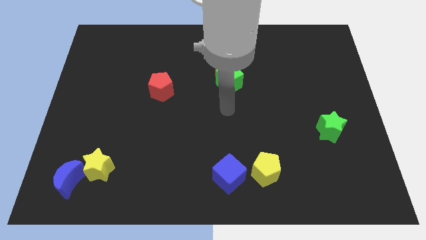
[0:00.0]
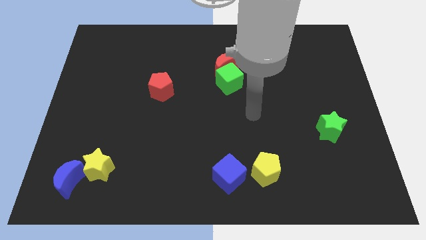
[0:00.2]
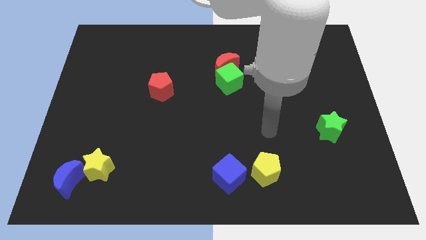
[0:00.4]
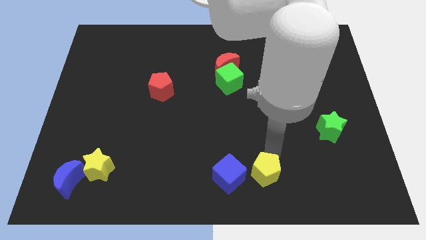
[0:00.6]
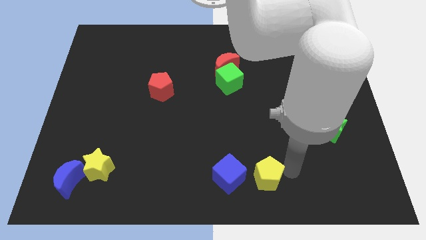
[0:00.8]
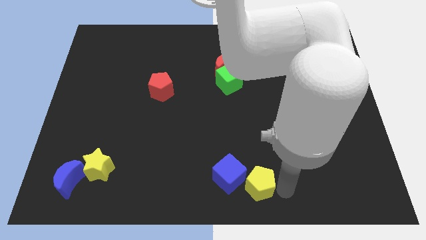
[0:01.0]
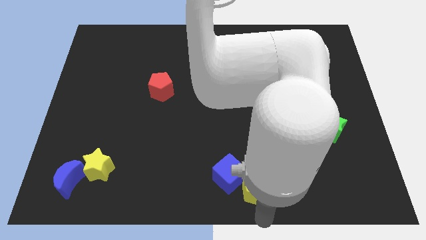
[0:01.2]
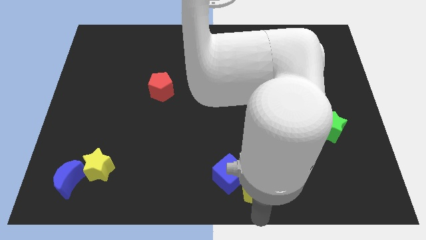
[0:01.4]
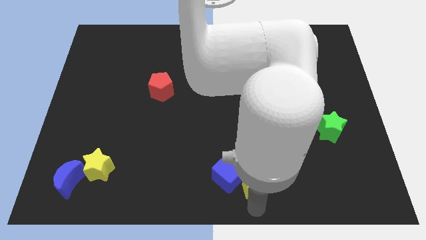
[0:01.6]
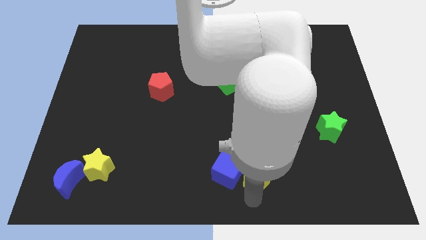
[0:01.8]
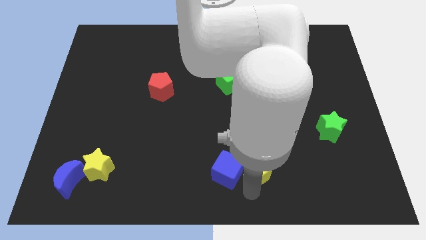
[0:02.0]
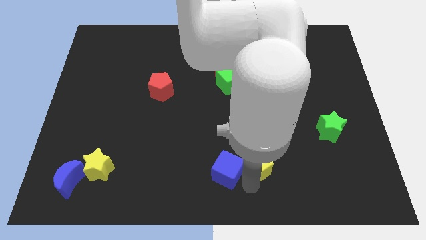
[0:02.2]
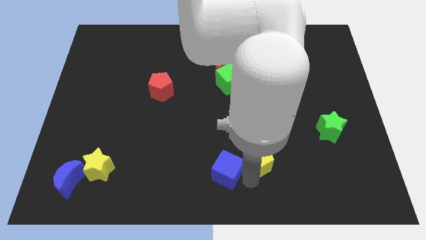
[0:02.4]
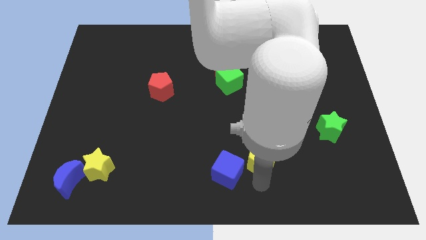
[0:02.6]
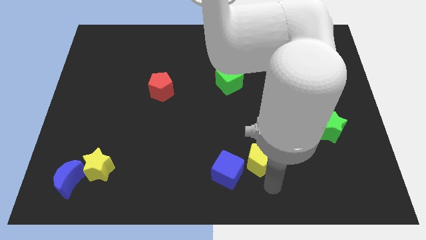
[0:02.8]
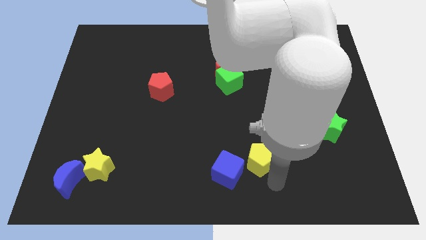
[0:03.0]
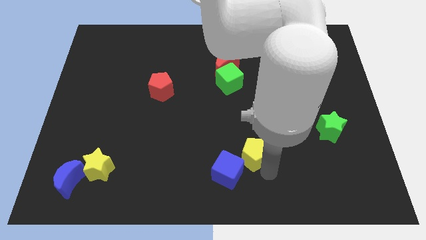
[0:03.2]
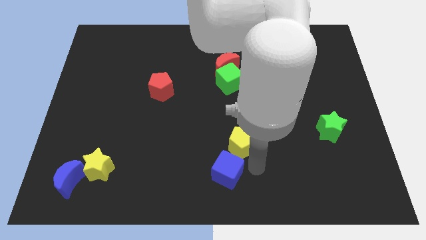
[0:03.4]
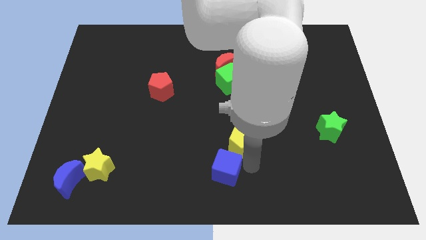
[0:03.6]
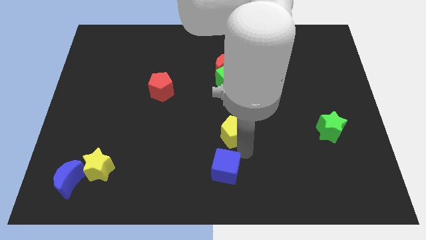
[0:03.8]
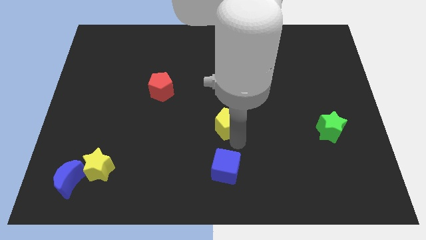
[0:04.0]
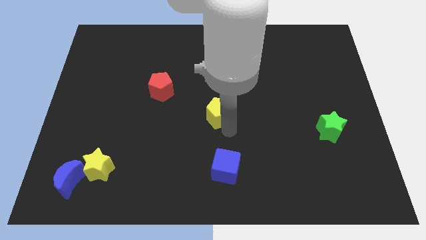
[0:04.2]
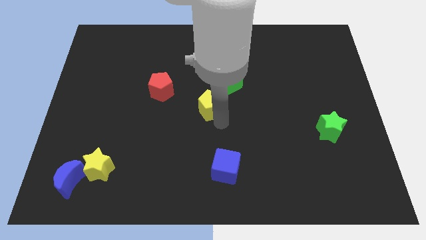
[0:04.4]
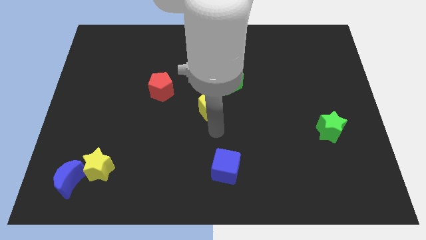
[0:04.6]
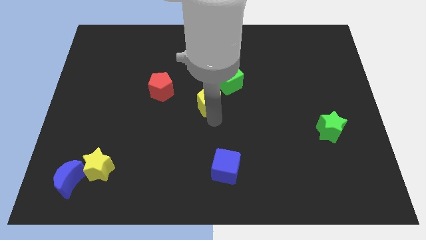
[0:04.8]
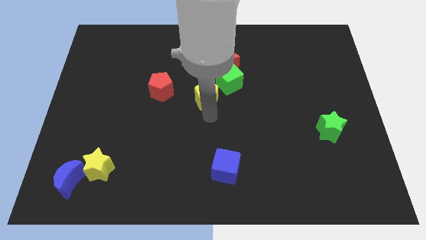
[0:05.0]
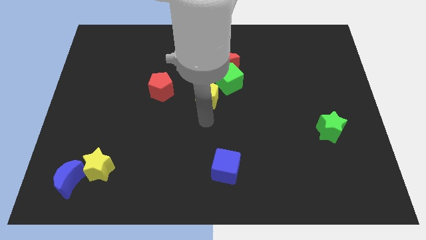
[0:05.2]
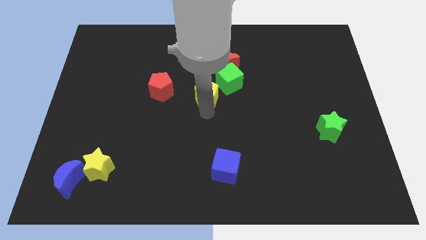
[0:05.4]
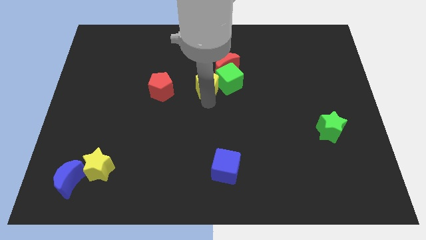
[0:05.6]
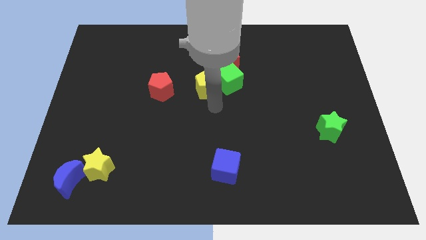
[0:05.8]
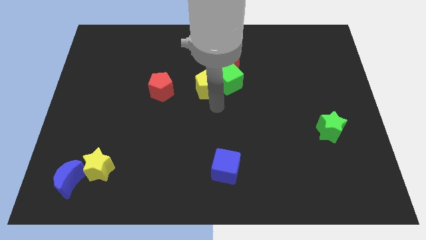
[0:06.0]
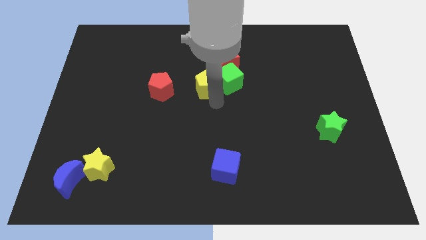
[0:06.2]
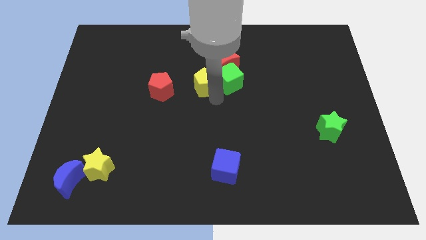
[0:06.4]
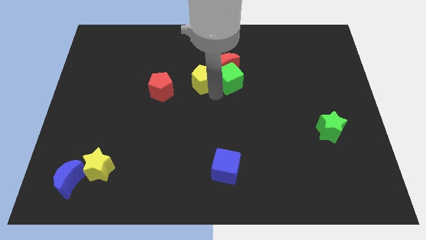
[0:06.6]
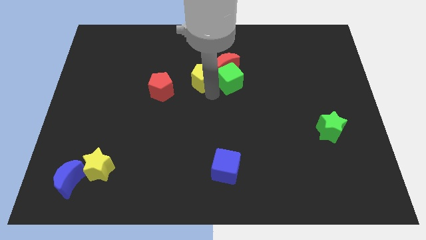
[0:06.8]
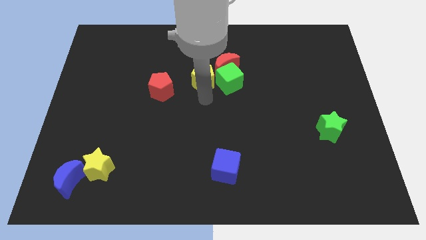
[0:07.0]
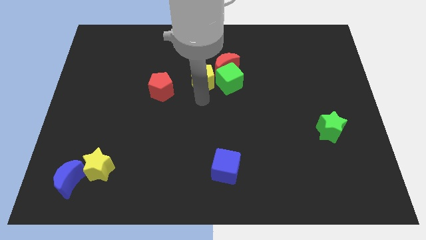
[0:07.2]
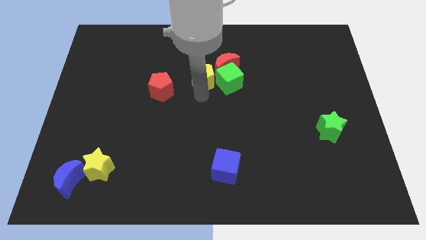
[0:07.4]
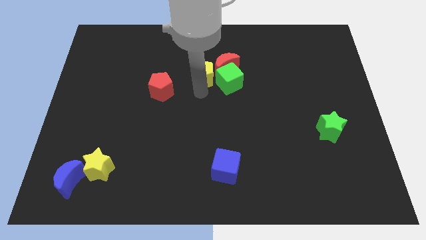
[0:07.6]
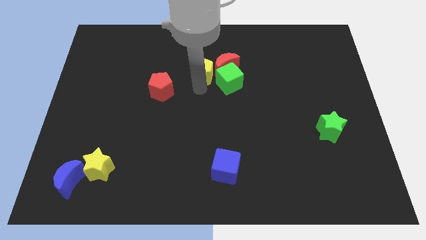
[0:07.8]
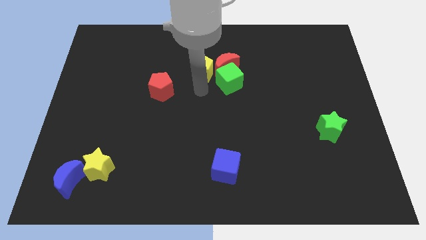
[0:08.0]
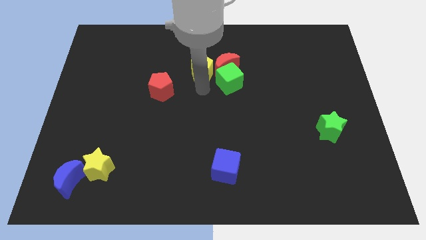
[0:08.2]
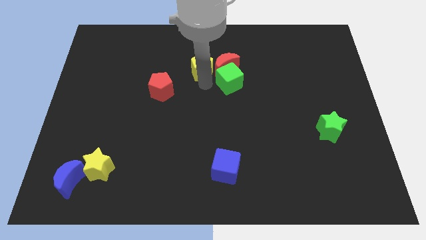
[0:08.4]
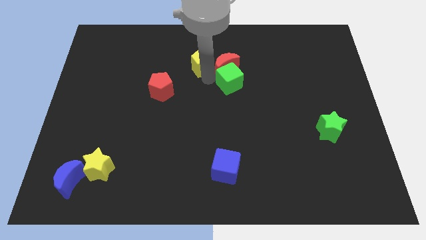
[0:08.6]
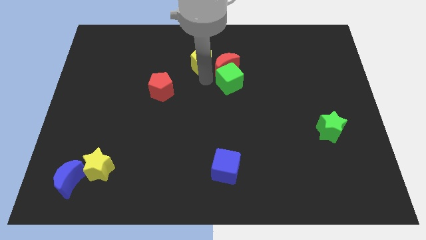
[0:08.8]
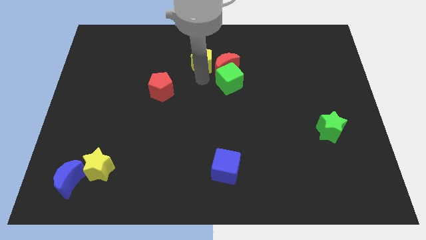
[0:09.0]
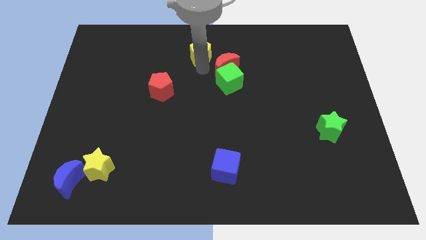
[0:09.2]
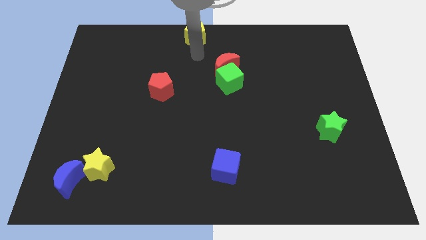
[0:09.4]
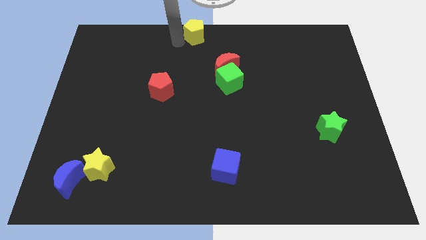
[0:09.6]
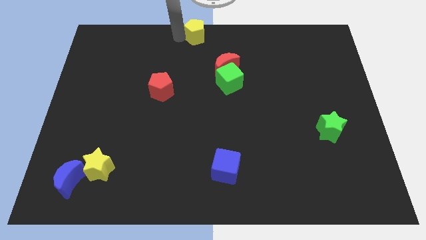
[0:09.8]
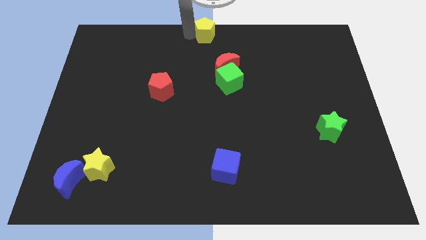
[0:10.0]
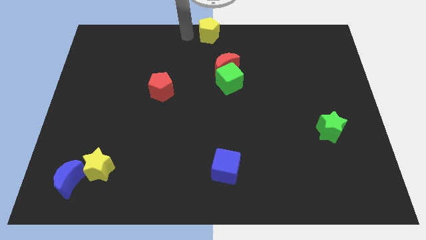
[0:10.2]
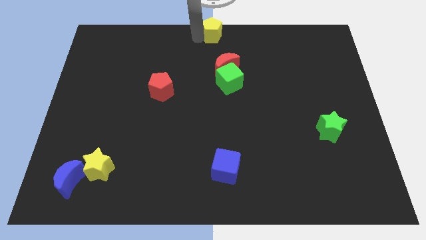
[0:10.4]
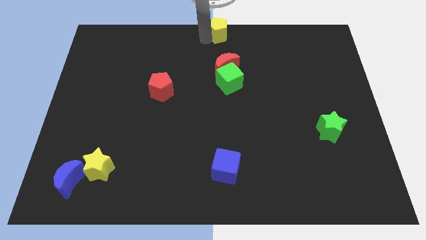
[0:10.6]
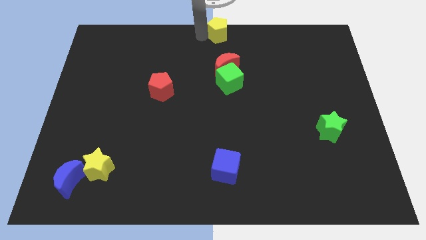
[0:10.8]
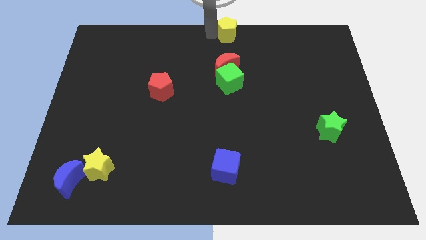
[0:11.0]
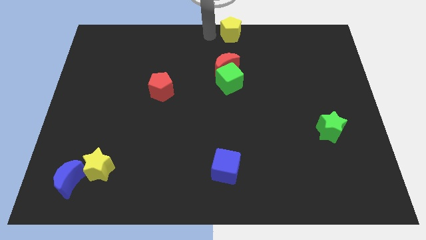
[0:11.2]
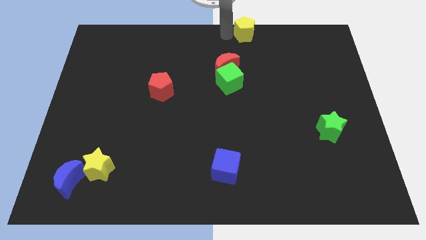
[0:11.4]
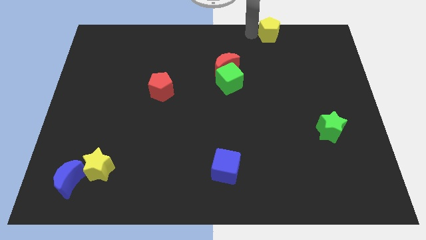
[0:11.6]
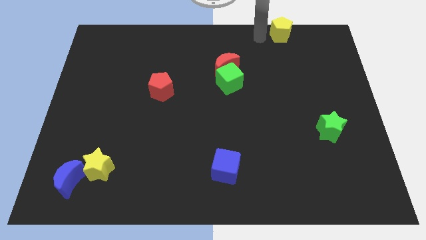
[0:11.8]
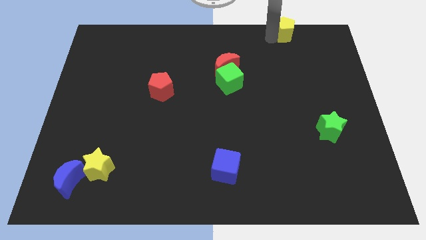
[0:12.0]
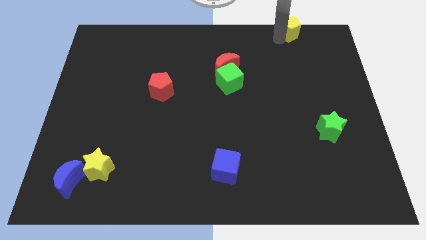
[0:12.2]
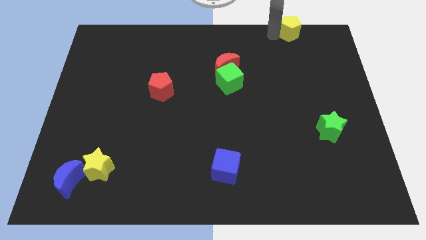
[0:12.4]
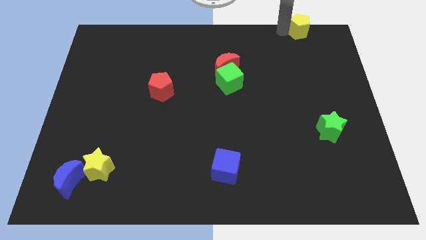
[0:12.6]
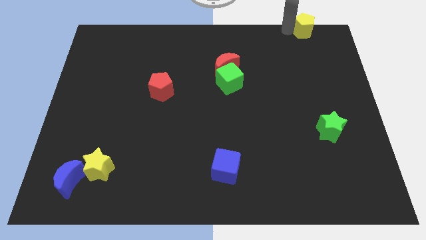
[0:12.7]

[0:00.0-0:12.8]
put the yellow pentagon to the upper right corner

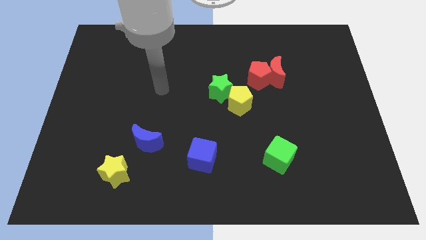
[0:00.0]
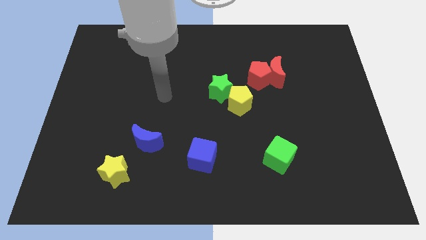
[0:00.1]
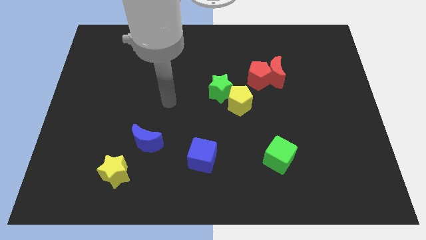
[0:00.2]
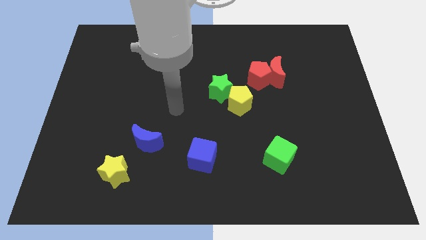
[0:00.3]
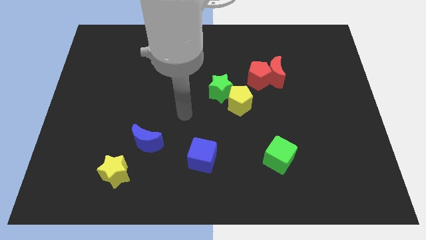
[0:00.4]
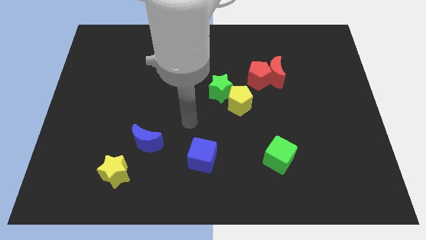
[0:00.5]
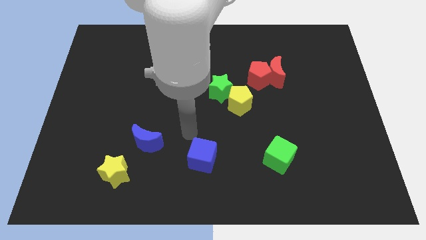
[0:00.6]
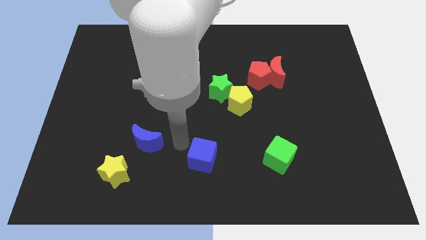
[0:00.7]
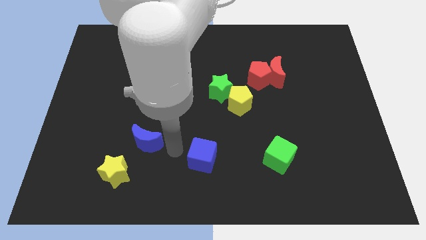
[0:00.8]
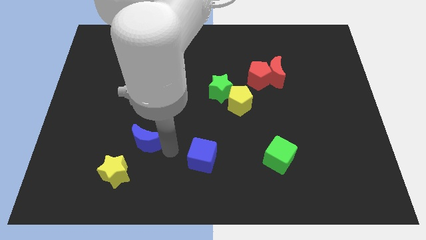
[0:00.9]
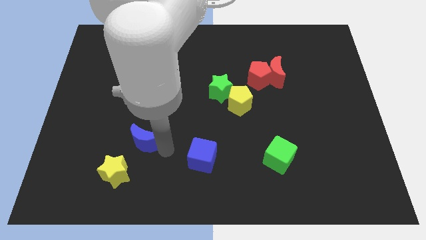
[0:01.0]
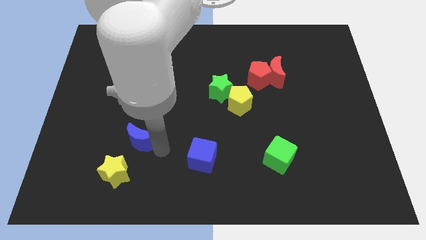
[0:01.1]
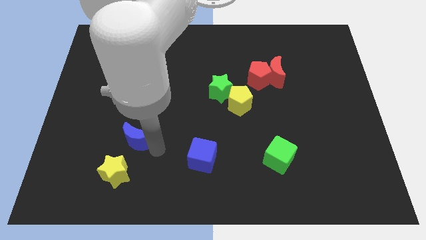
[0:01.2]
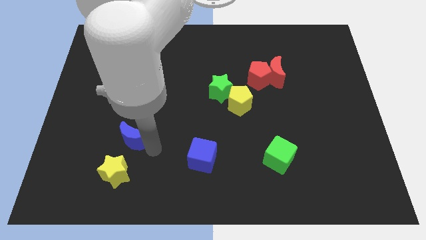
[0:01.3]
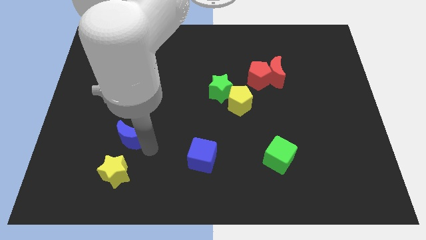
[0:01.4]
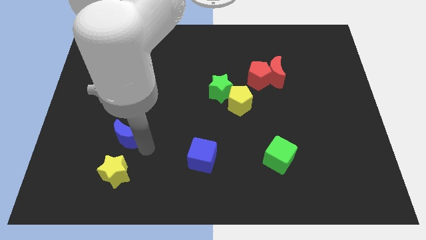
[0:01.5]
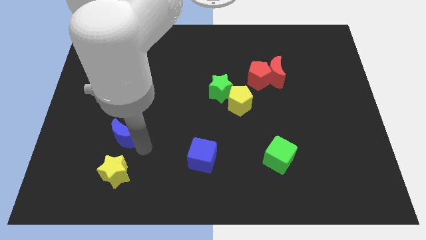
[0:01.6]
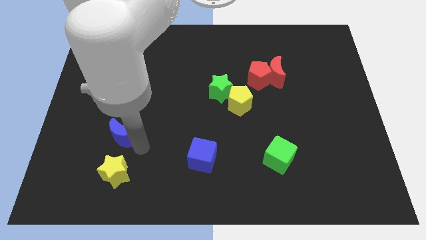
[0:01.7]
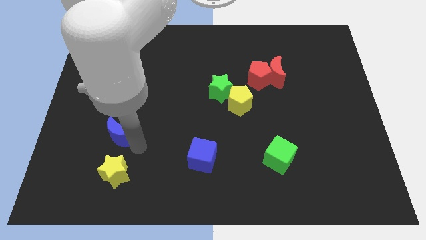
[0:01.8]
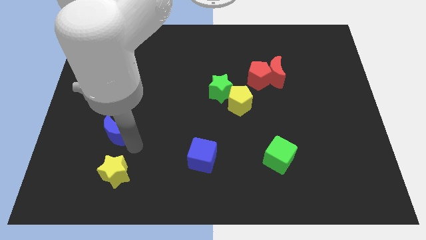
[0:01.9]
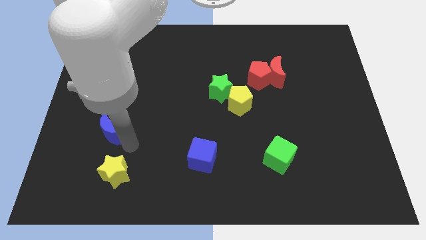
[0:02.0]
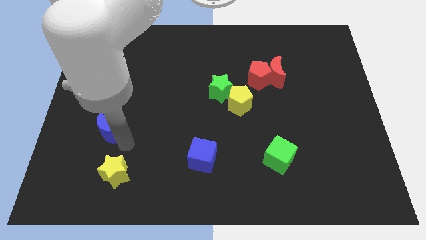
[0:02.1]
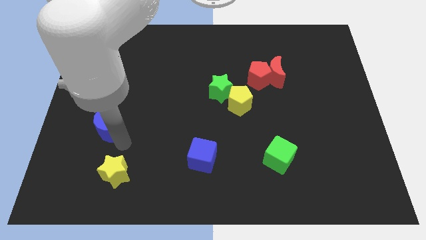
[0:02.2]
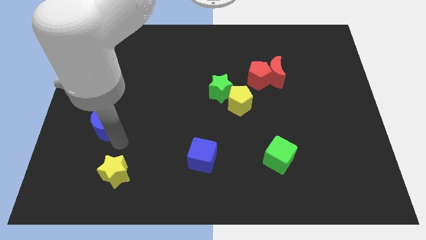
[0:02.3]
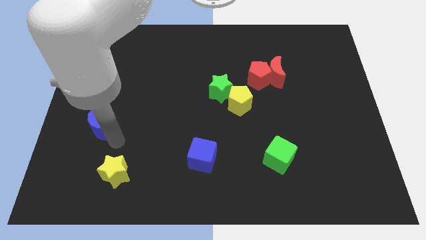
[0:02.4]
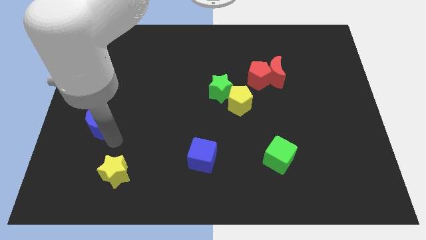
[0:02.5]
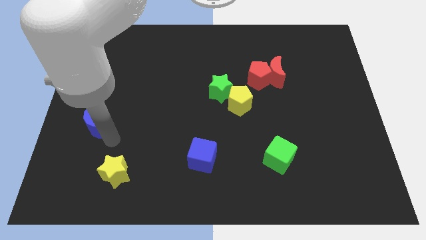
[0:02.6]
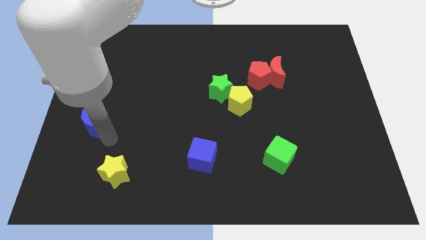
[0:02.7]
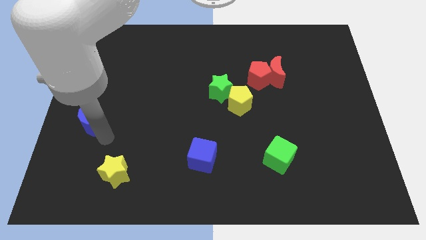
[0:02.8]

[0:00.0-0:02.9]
put the blue moon to the left side of the board
